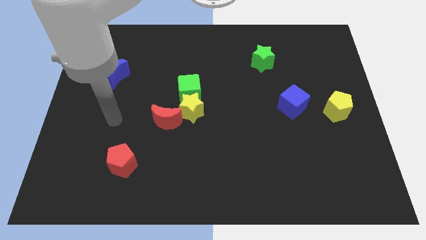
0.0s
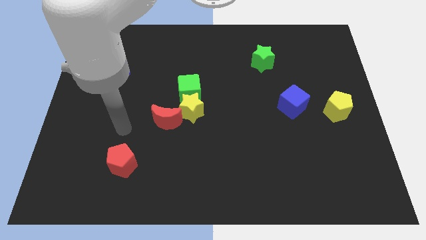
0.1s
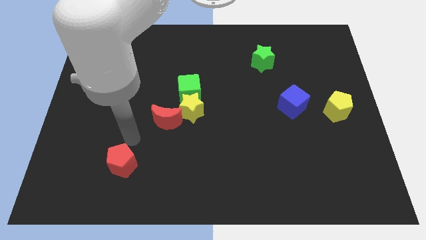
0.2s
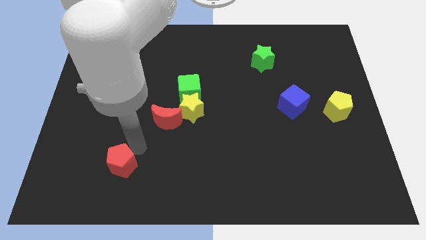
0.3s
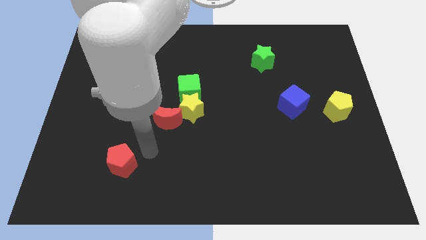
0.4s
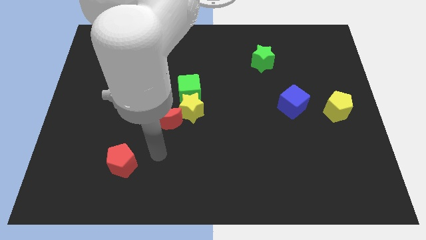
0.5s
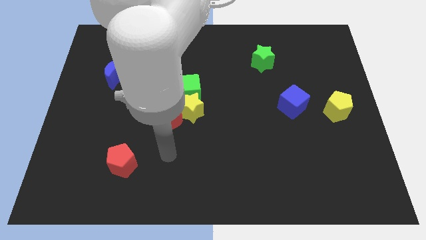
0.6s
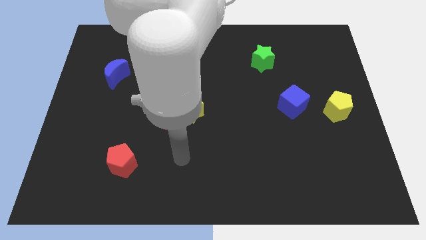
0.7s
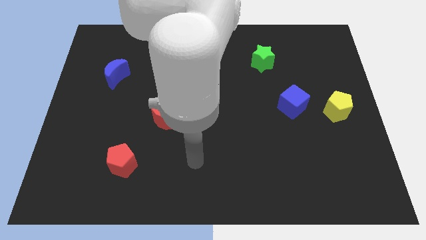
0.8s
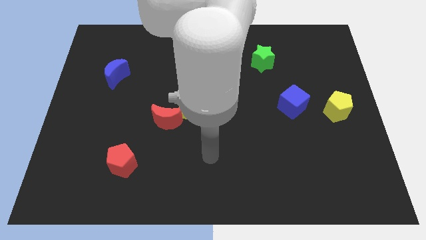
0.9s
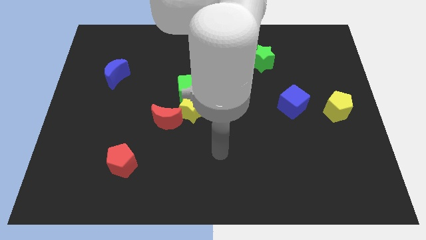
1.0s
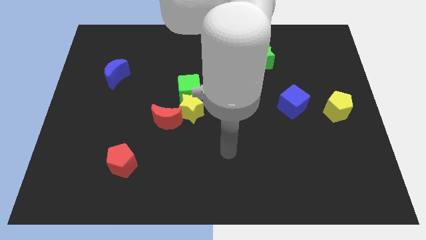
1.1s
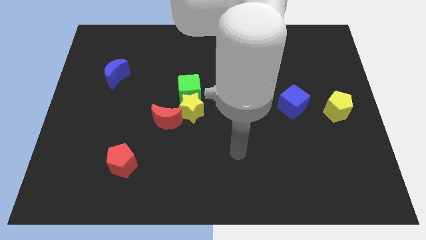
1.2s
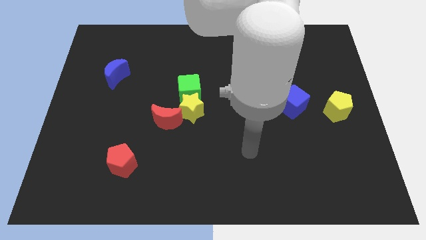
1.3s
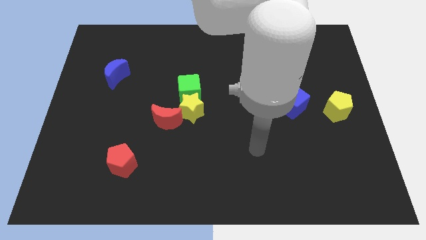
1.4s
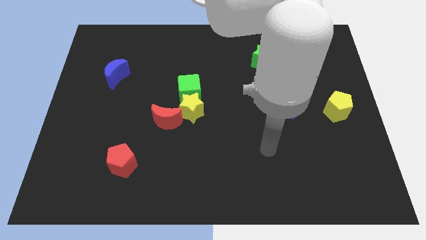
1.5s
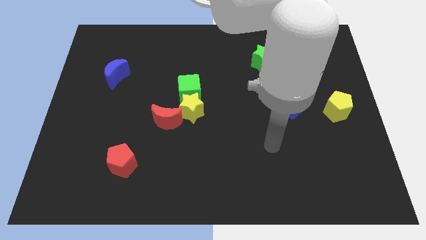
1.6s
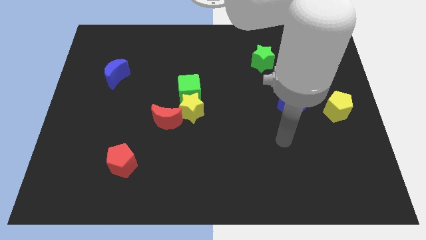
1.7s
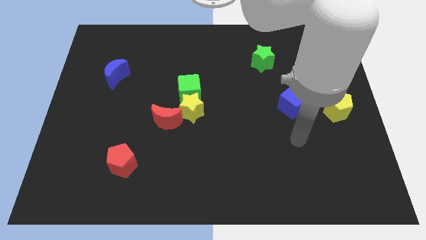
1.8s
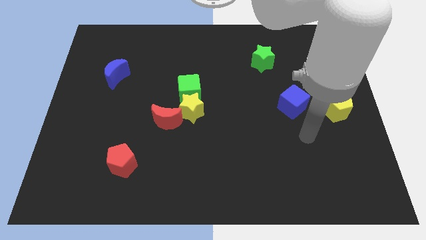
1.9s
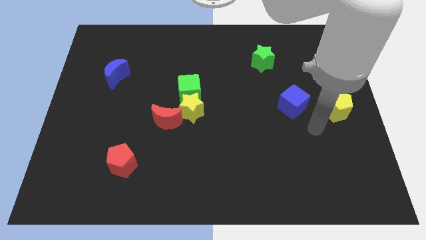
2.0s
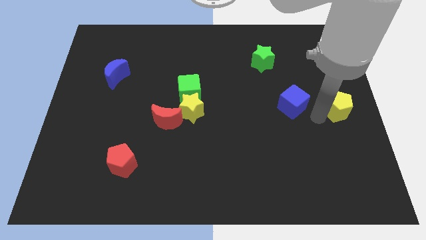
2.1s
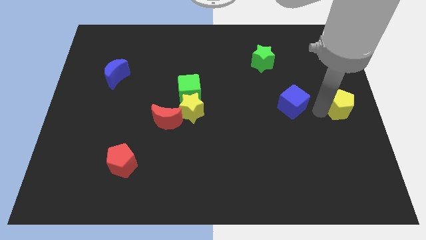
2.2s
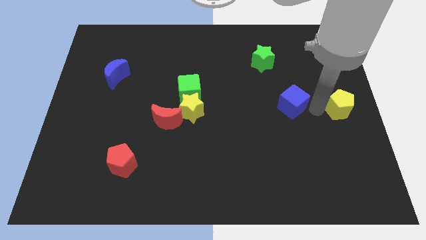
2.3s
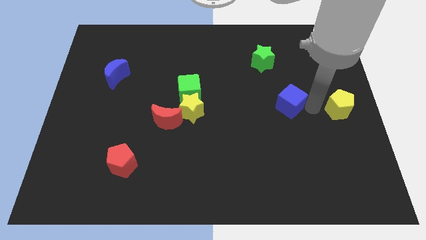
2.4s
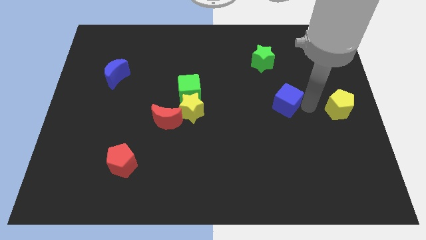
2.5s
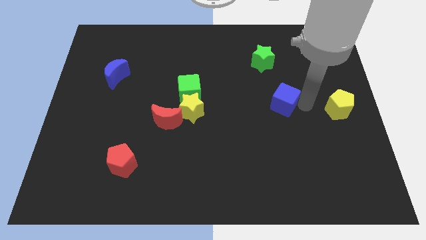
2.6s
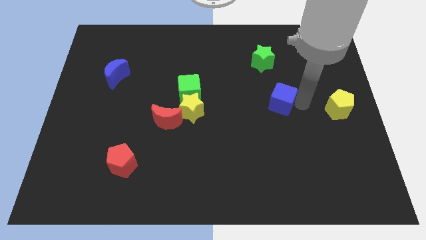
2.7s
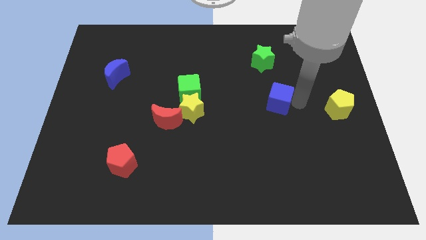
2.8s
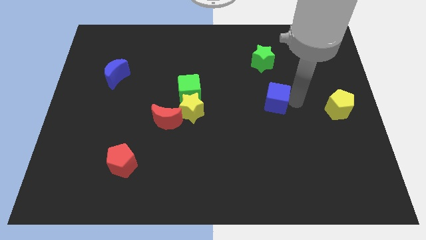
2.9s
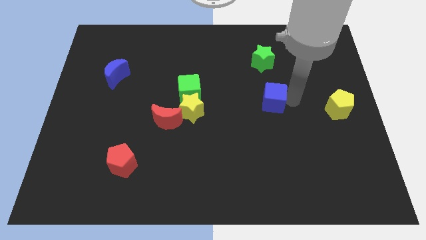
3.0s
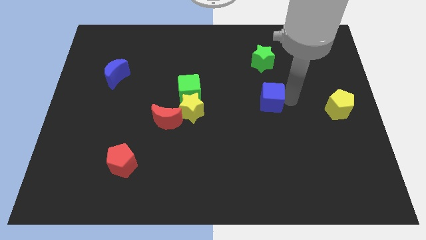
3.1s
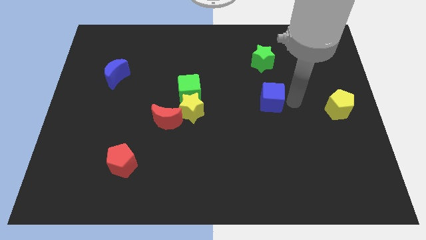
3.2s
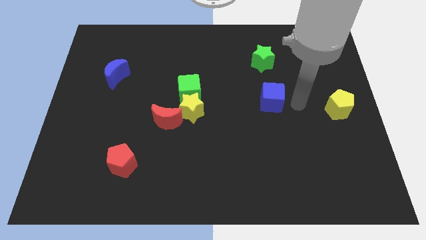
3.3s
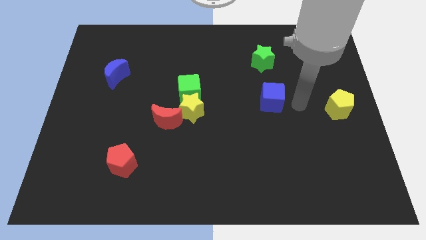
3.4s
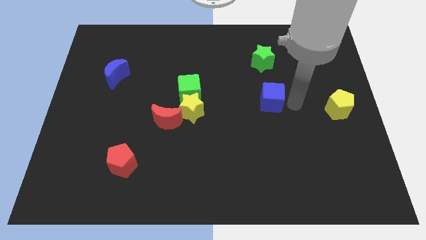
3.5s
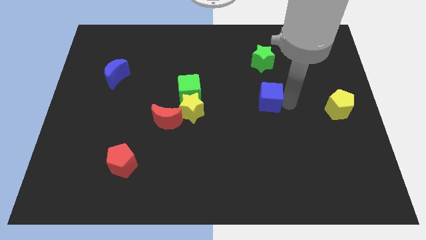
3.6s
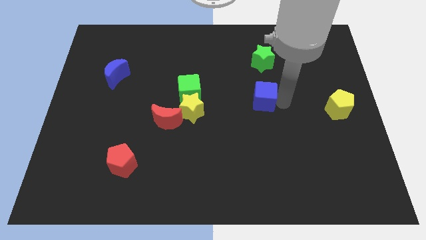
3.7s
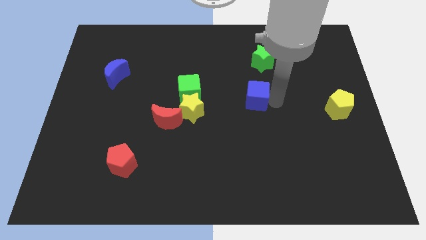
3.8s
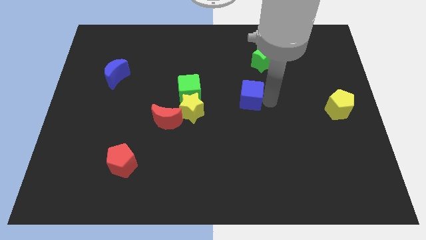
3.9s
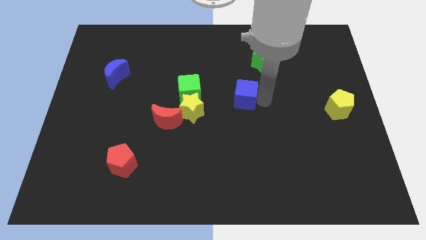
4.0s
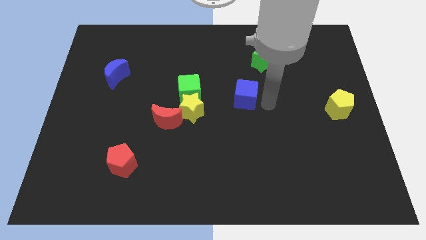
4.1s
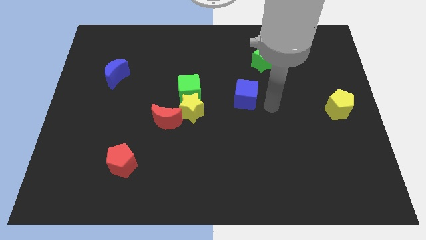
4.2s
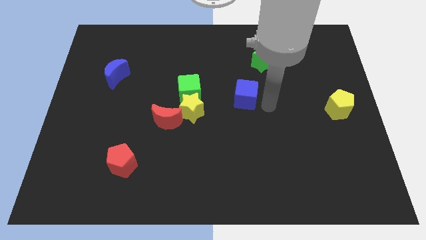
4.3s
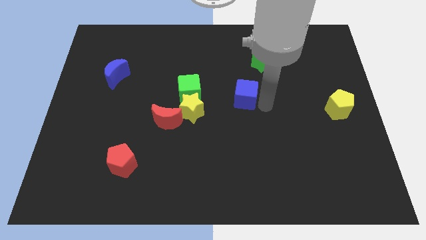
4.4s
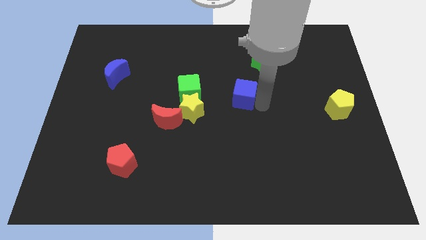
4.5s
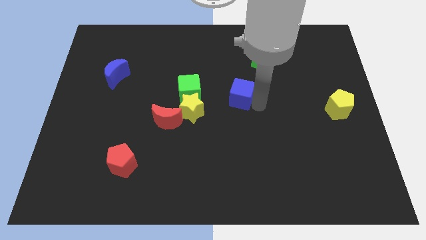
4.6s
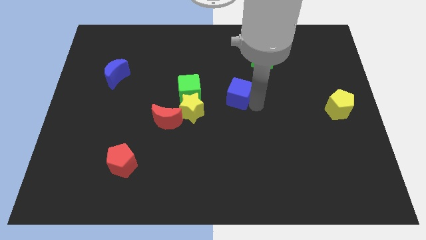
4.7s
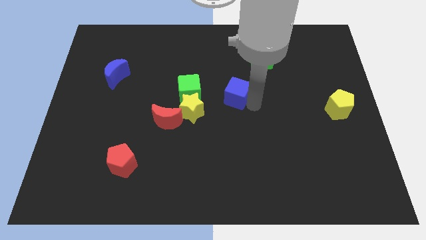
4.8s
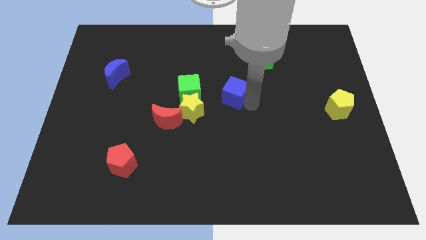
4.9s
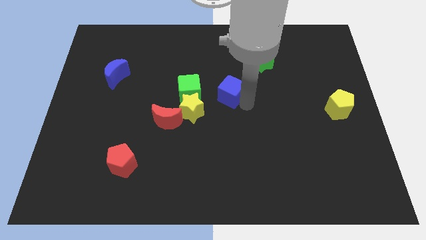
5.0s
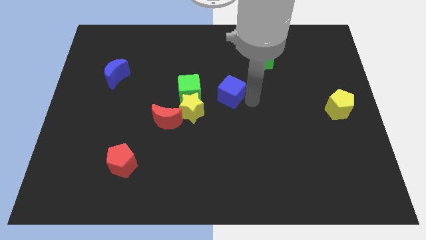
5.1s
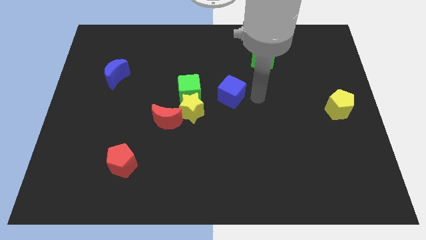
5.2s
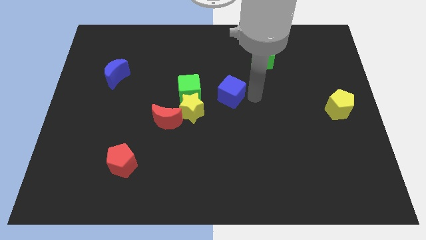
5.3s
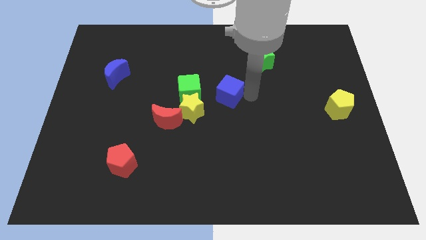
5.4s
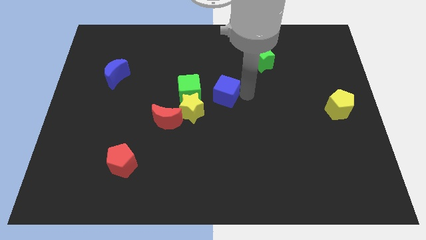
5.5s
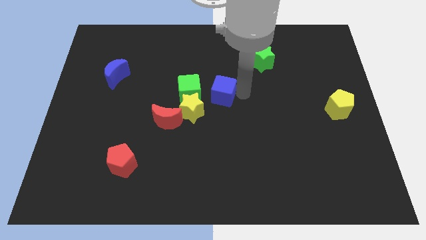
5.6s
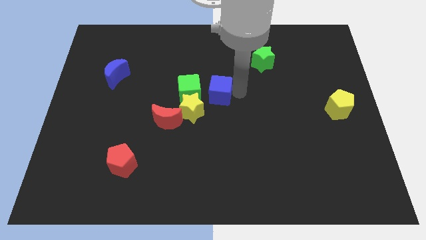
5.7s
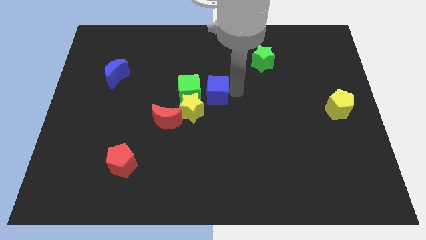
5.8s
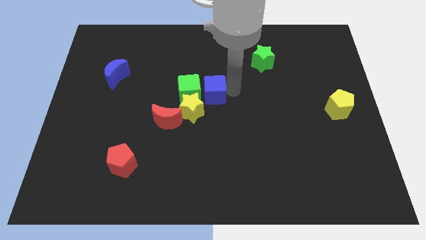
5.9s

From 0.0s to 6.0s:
put the blue cube towards the green cube

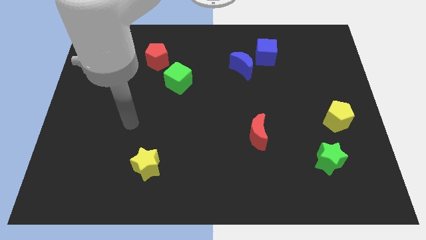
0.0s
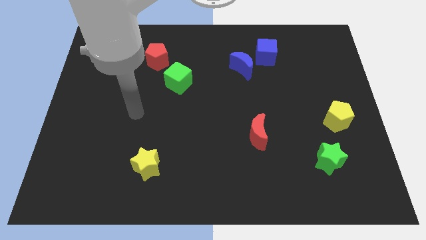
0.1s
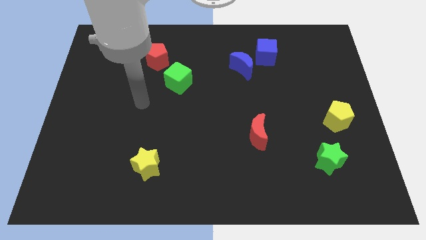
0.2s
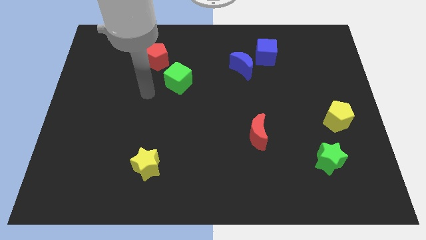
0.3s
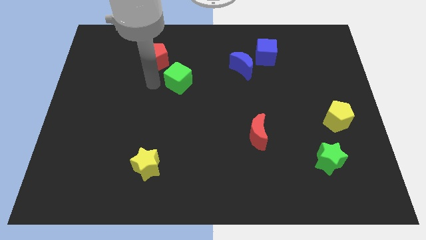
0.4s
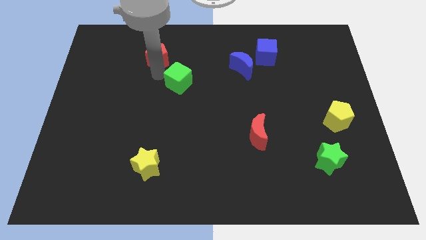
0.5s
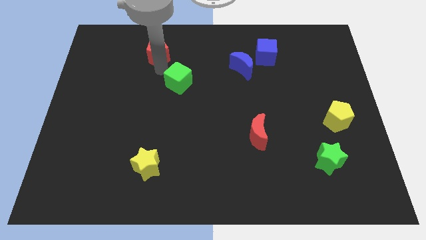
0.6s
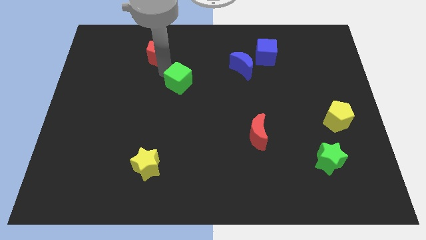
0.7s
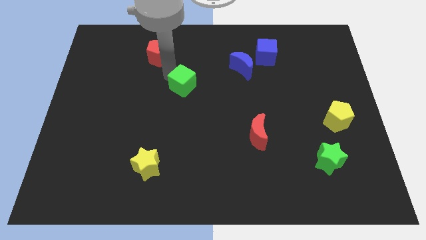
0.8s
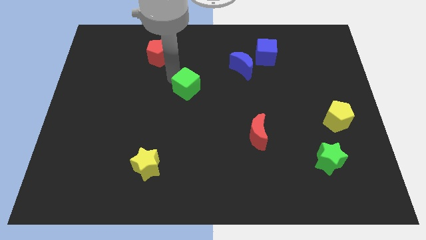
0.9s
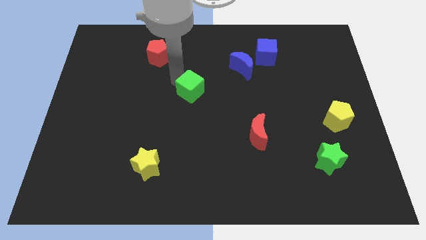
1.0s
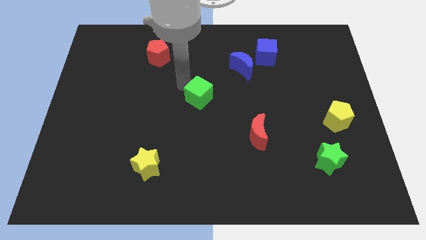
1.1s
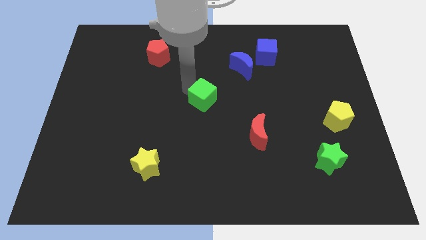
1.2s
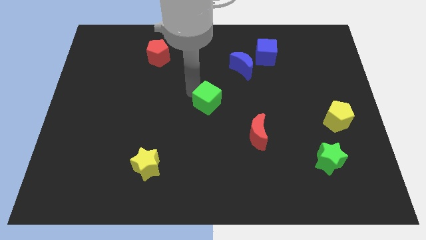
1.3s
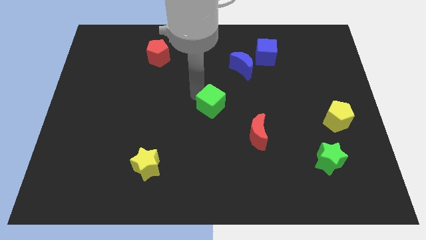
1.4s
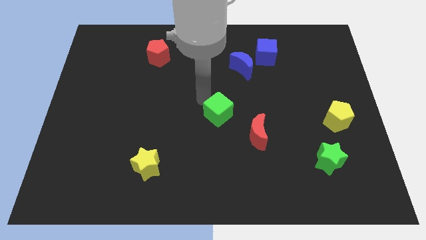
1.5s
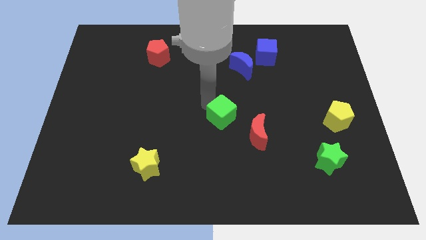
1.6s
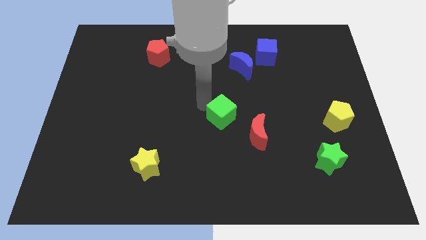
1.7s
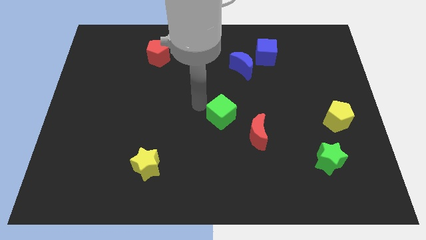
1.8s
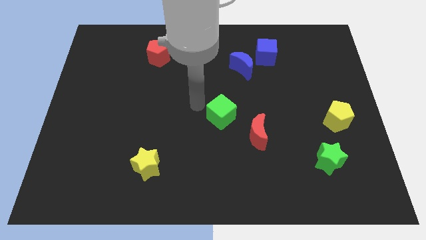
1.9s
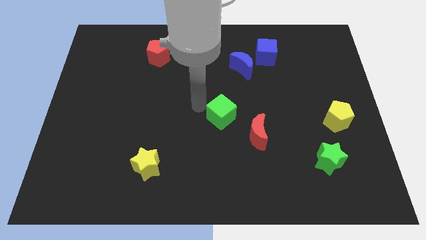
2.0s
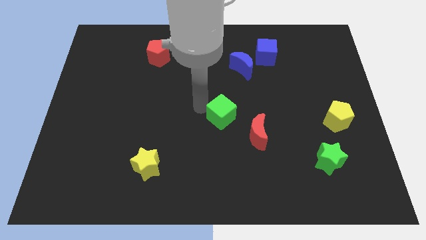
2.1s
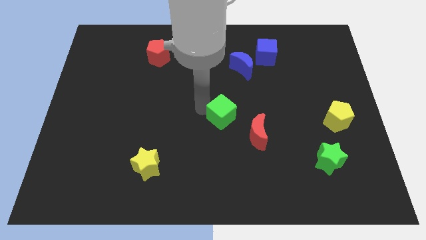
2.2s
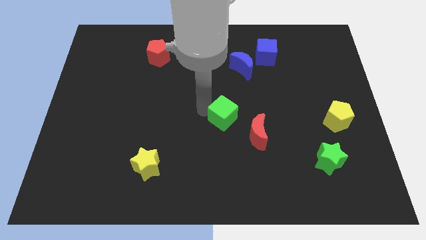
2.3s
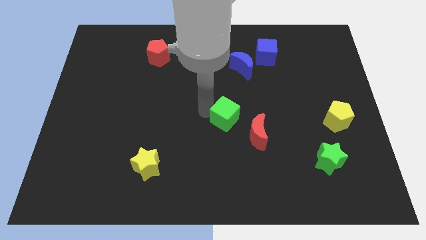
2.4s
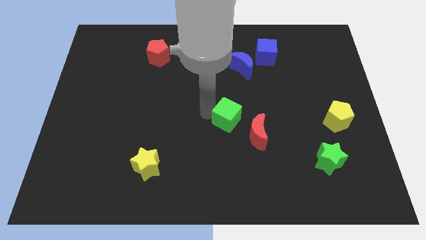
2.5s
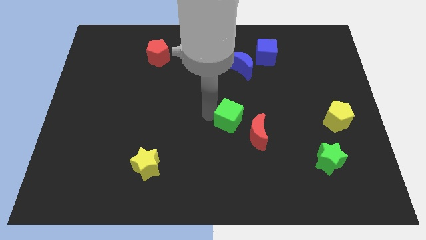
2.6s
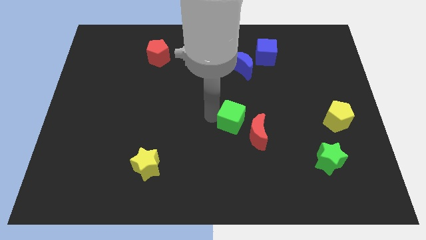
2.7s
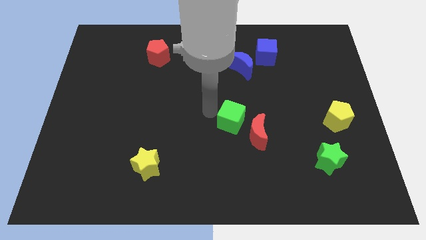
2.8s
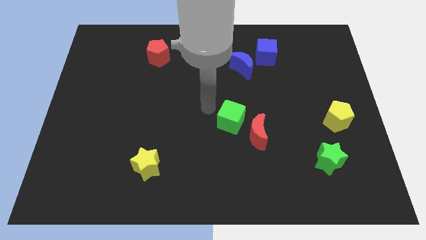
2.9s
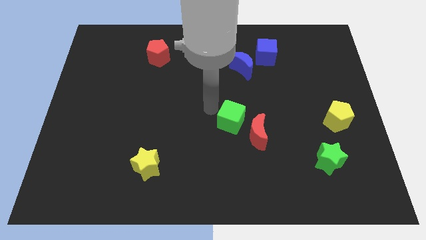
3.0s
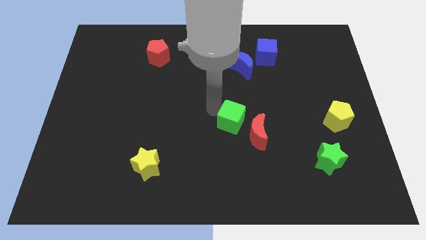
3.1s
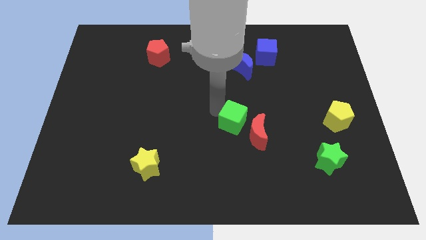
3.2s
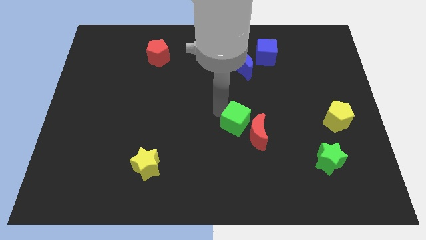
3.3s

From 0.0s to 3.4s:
put the green cube close to the red moon
